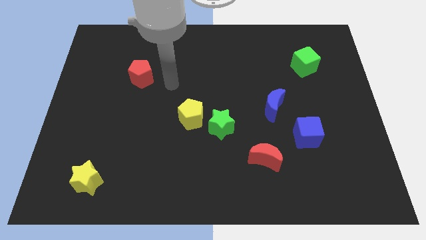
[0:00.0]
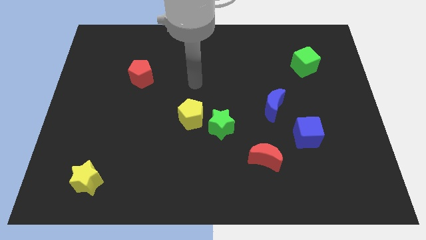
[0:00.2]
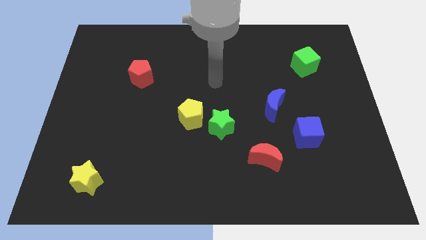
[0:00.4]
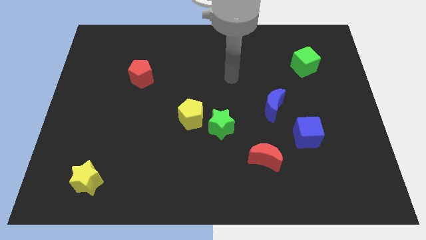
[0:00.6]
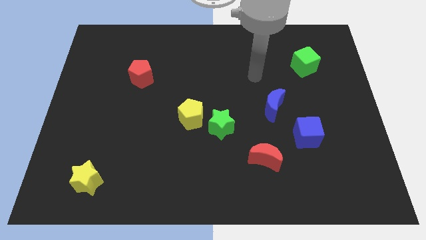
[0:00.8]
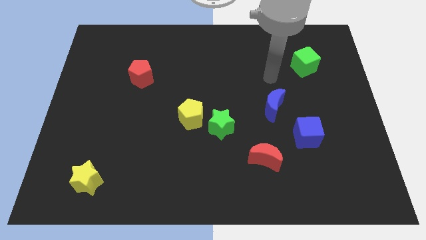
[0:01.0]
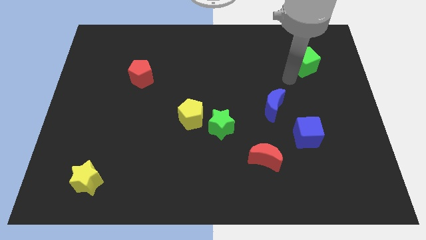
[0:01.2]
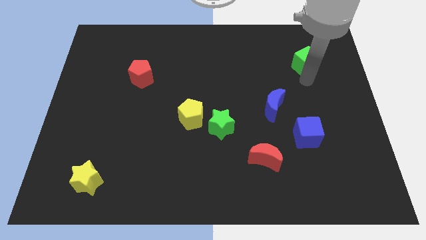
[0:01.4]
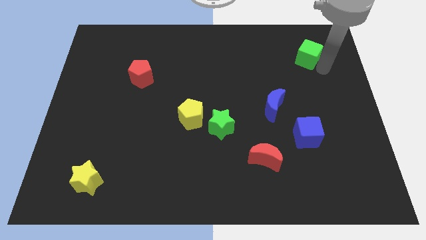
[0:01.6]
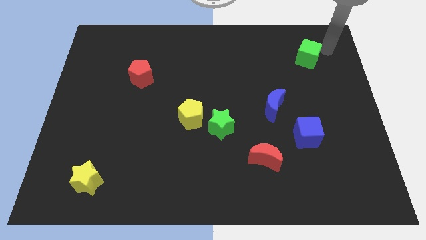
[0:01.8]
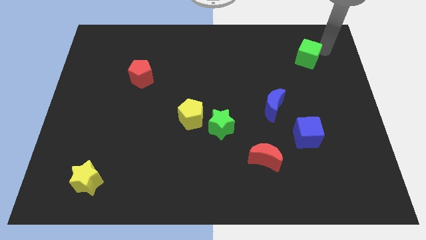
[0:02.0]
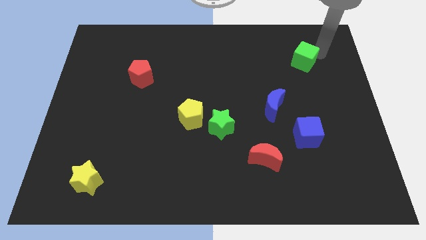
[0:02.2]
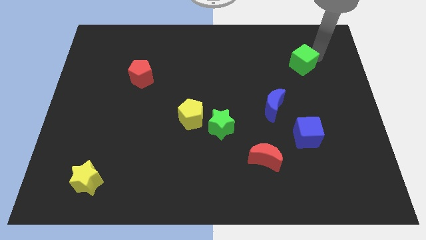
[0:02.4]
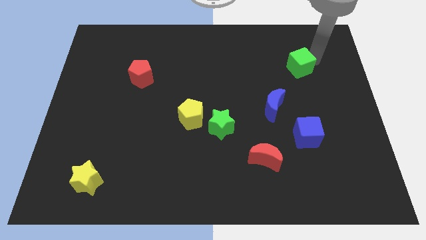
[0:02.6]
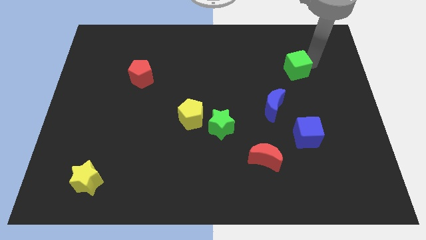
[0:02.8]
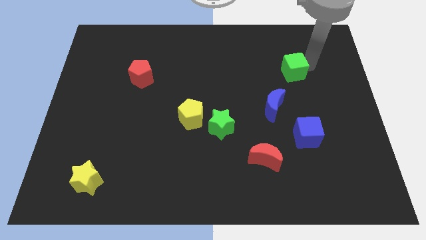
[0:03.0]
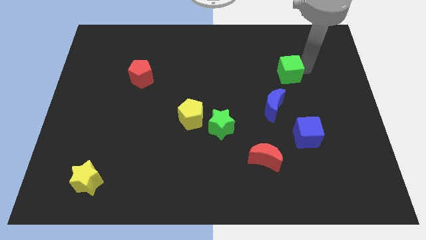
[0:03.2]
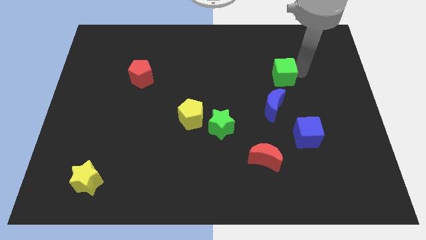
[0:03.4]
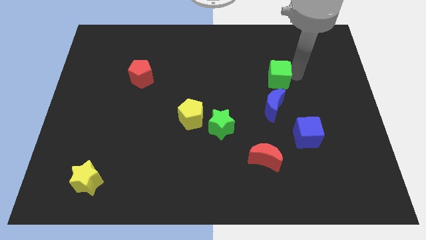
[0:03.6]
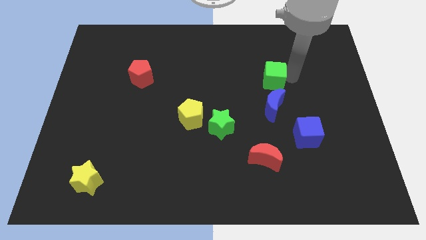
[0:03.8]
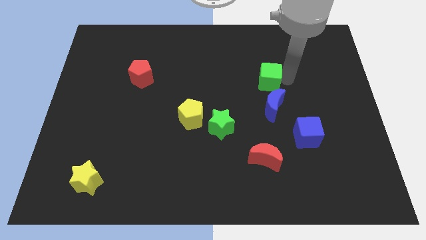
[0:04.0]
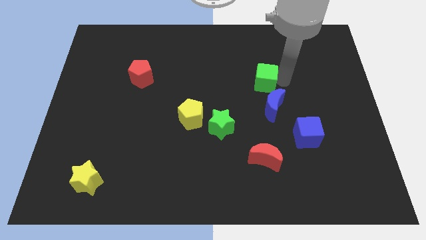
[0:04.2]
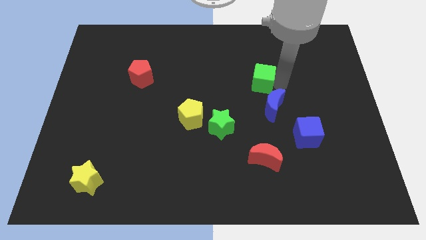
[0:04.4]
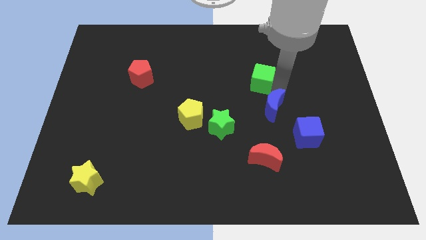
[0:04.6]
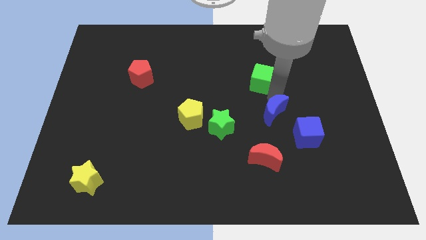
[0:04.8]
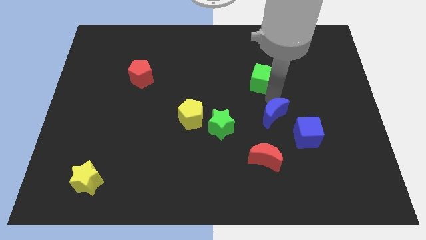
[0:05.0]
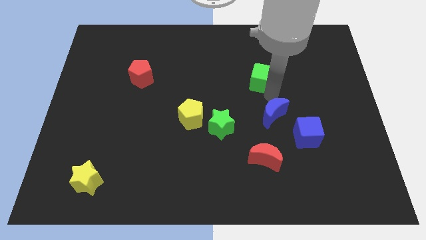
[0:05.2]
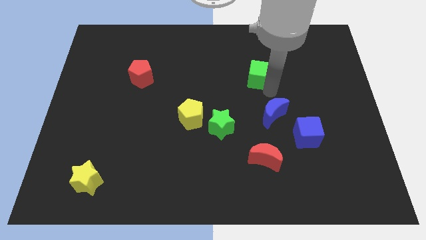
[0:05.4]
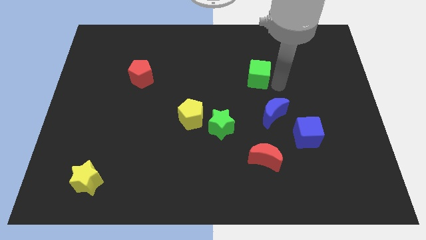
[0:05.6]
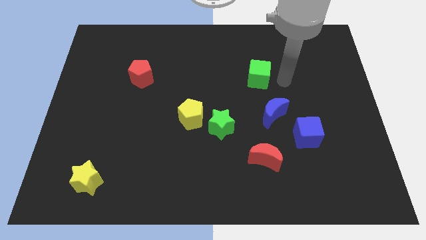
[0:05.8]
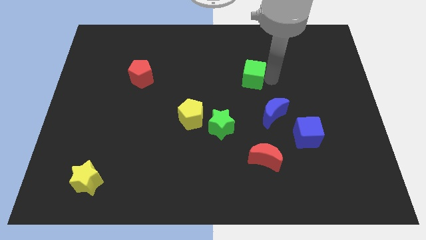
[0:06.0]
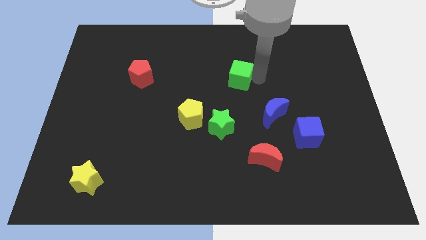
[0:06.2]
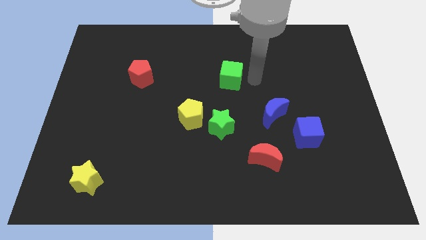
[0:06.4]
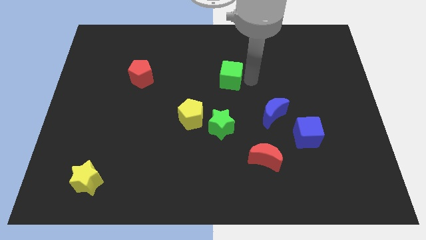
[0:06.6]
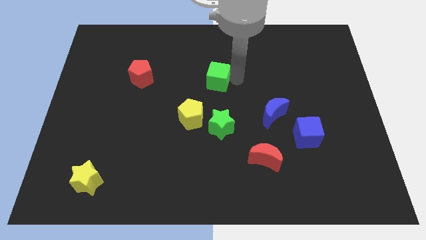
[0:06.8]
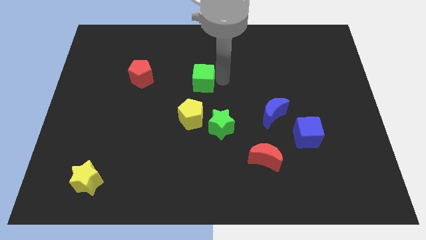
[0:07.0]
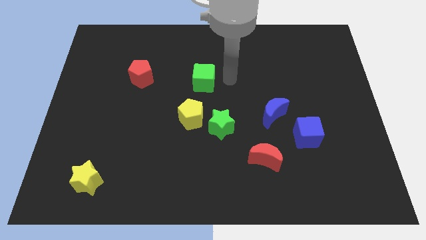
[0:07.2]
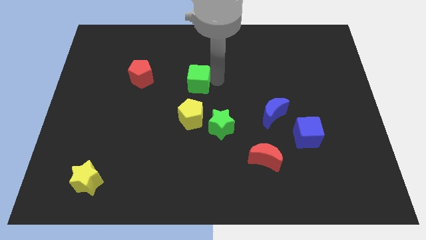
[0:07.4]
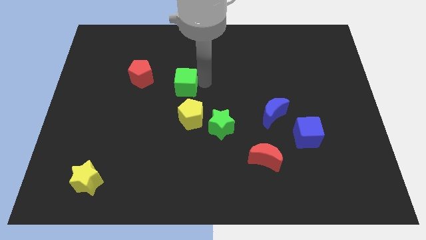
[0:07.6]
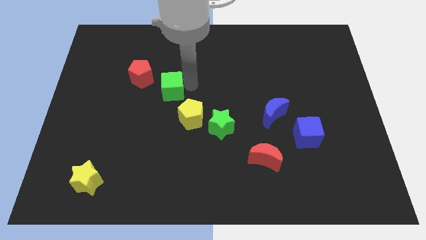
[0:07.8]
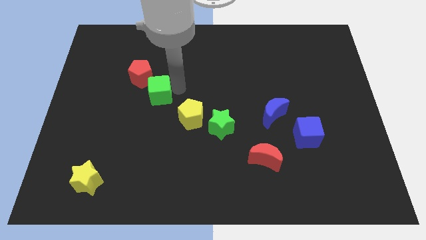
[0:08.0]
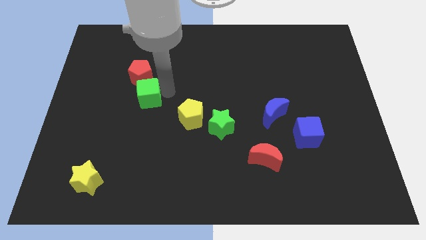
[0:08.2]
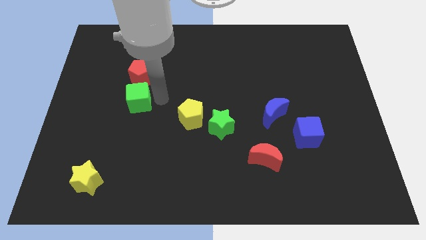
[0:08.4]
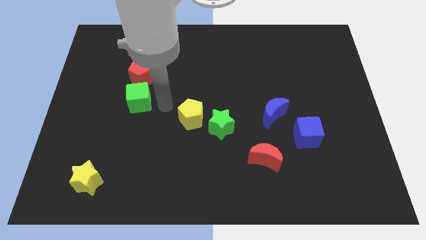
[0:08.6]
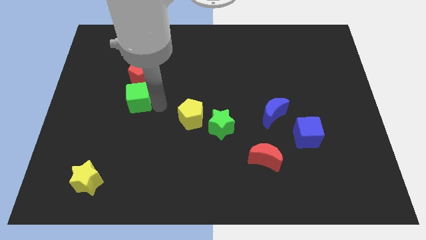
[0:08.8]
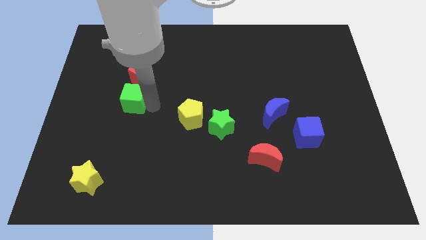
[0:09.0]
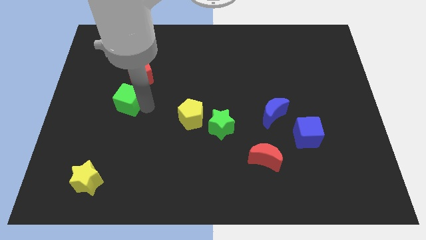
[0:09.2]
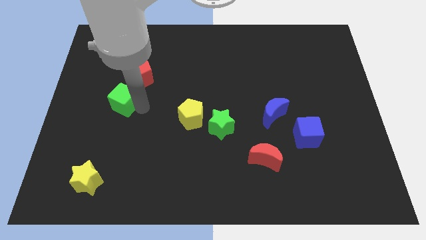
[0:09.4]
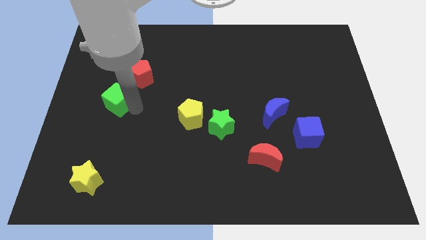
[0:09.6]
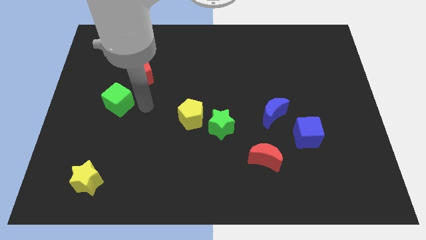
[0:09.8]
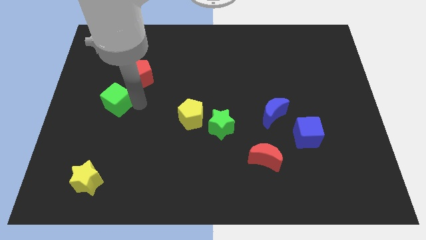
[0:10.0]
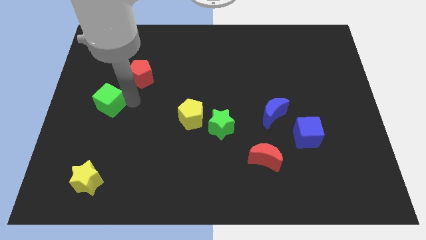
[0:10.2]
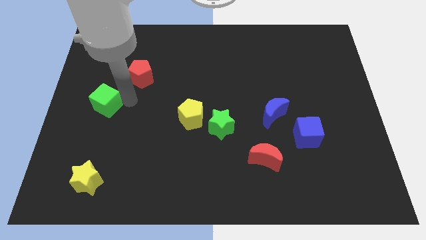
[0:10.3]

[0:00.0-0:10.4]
slide the green cube to the left side

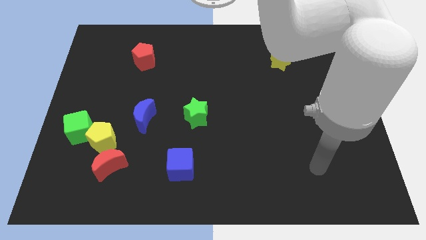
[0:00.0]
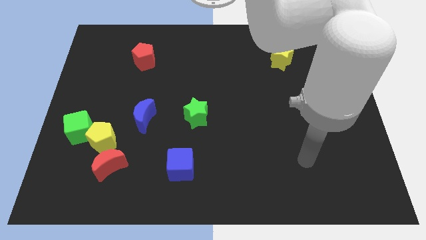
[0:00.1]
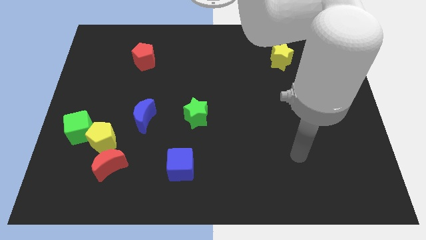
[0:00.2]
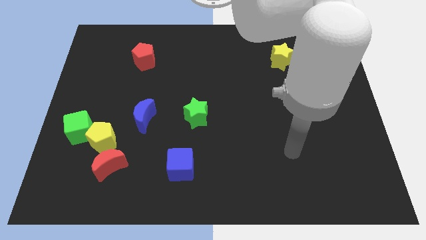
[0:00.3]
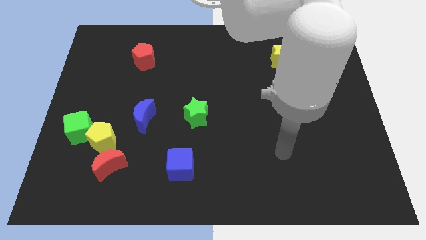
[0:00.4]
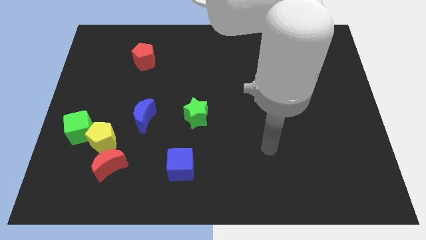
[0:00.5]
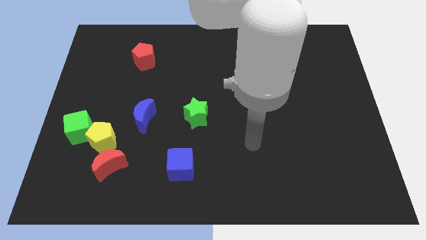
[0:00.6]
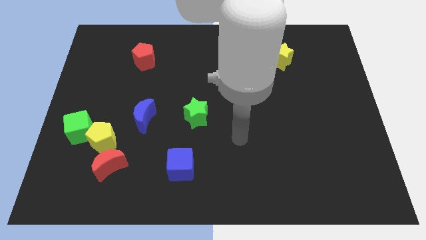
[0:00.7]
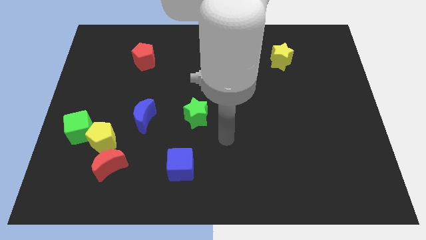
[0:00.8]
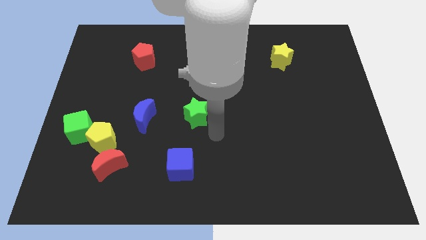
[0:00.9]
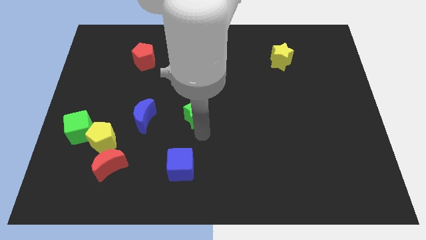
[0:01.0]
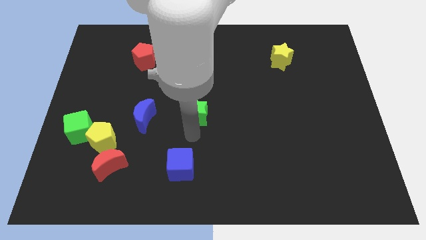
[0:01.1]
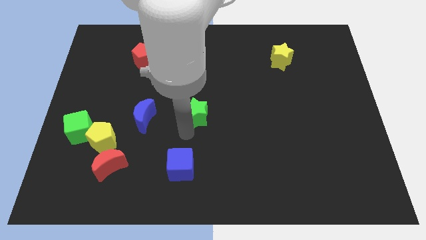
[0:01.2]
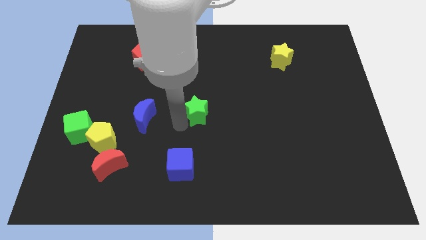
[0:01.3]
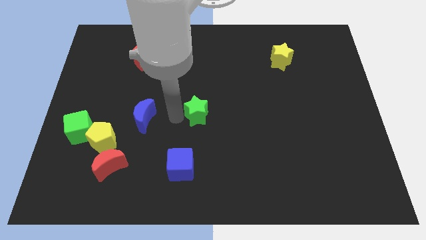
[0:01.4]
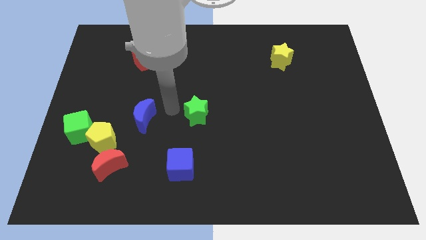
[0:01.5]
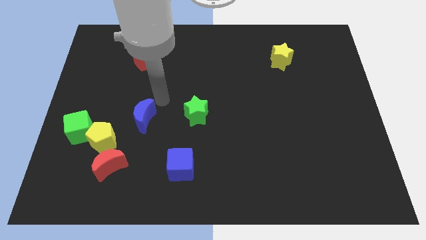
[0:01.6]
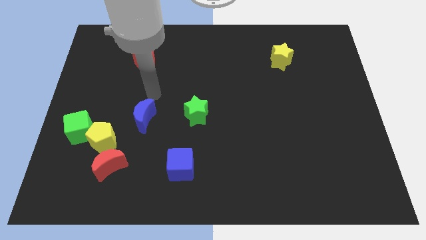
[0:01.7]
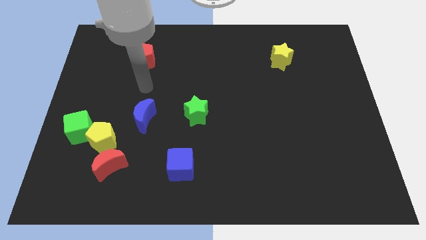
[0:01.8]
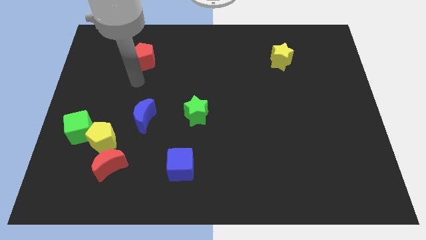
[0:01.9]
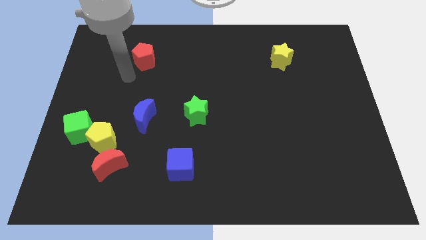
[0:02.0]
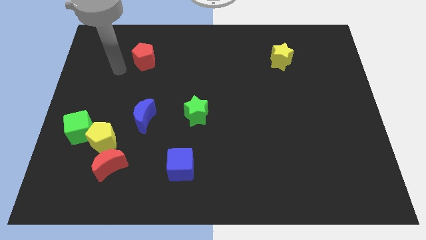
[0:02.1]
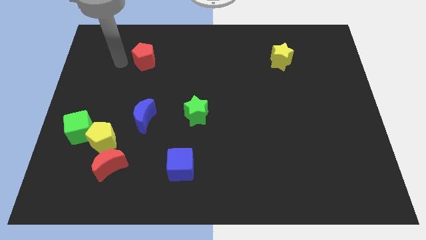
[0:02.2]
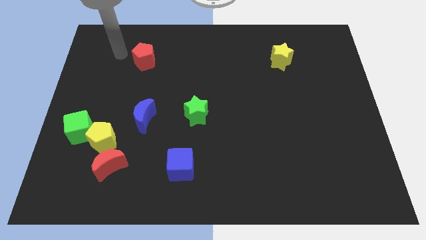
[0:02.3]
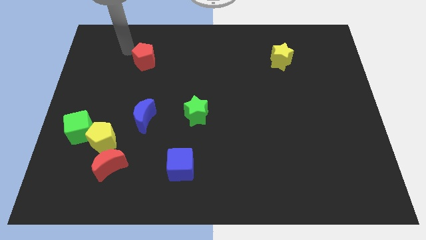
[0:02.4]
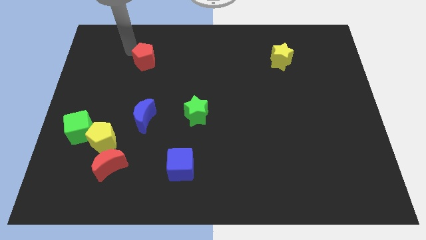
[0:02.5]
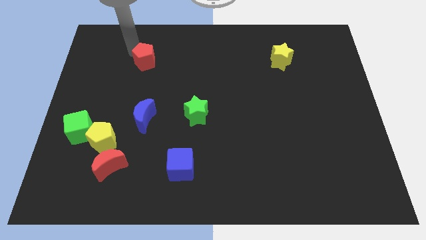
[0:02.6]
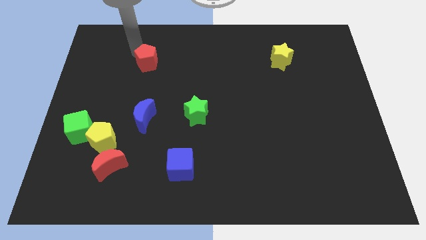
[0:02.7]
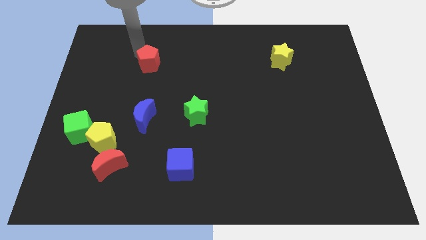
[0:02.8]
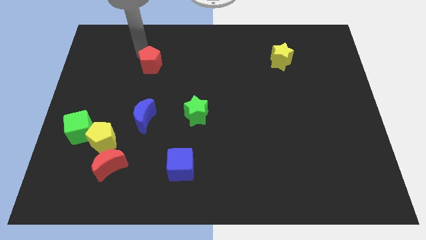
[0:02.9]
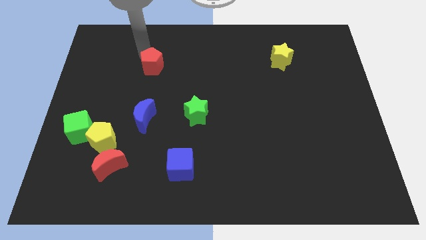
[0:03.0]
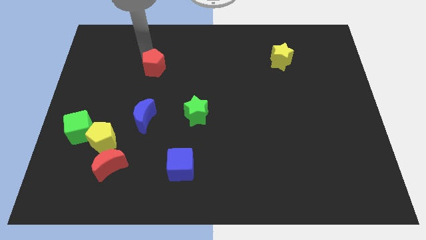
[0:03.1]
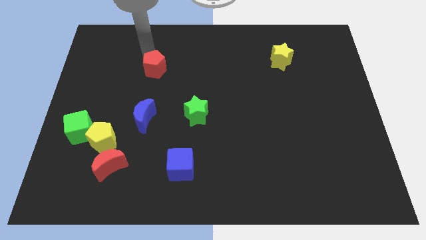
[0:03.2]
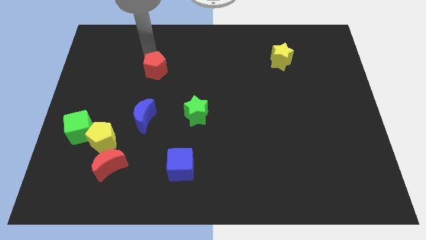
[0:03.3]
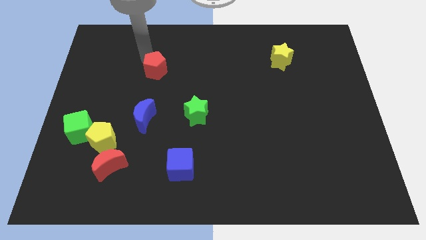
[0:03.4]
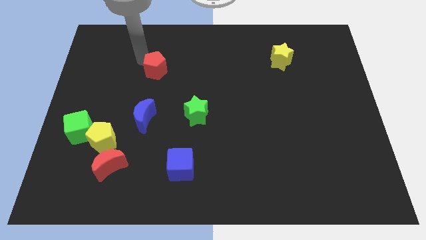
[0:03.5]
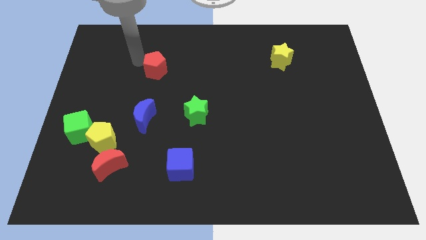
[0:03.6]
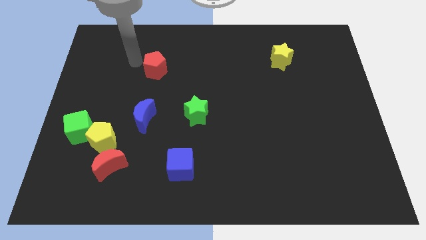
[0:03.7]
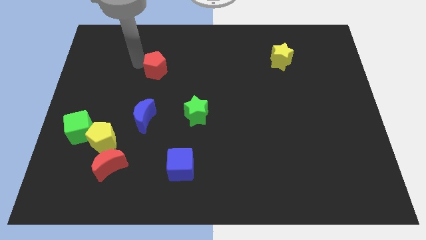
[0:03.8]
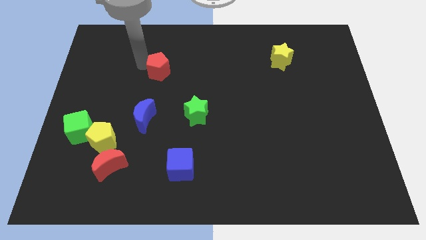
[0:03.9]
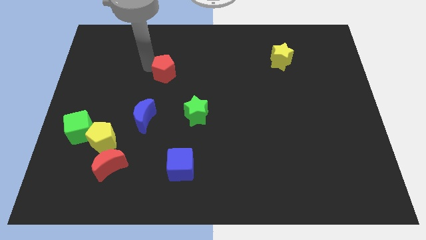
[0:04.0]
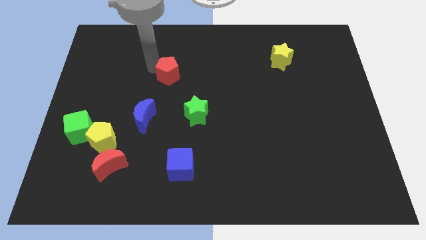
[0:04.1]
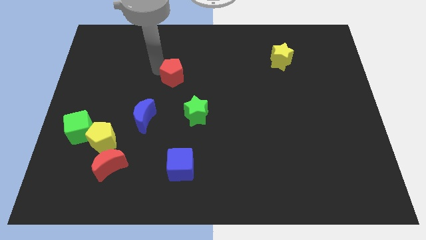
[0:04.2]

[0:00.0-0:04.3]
put the red pentagon to the middle
